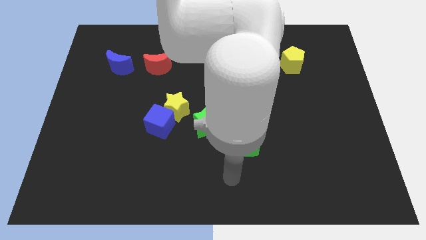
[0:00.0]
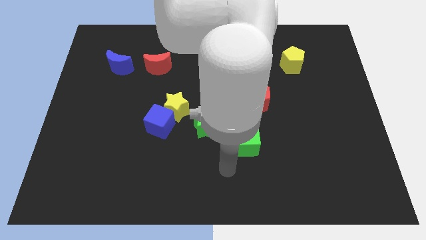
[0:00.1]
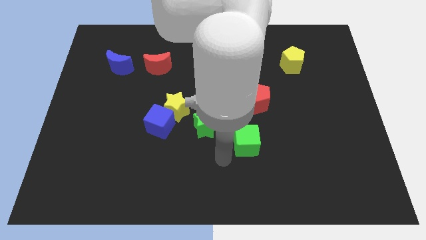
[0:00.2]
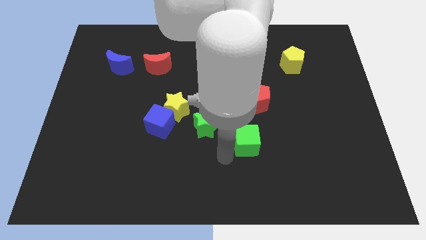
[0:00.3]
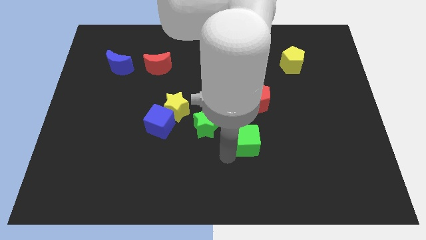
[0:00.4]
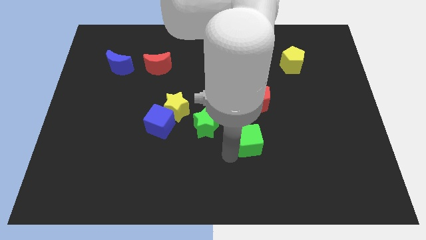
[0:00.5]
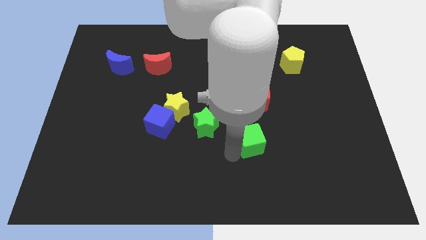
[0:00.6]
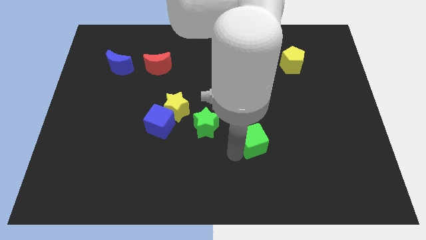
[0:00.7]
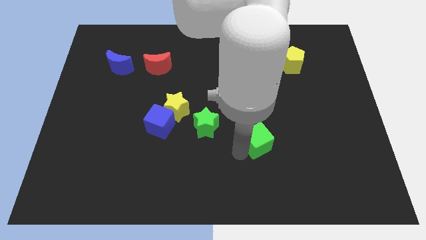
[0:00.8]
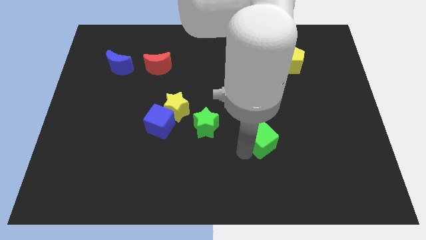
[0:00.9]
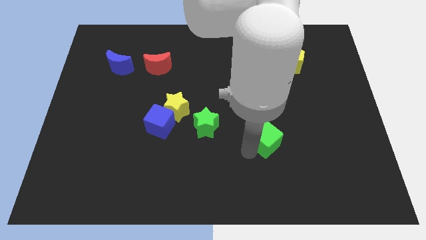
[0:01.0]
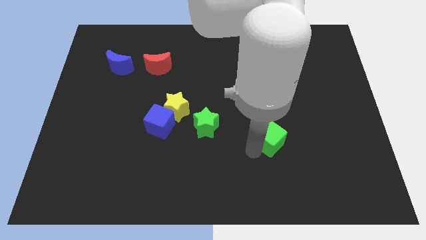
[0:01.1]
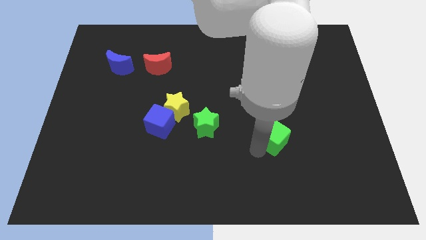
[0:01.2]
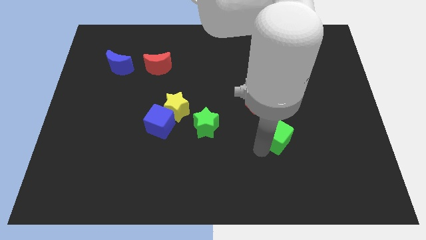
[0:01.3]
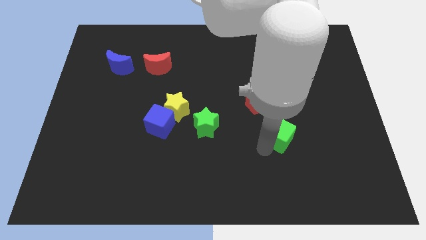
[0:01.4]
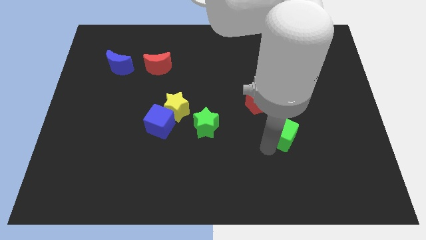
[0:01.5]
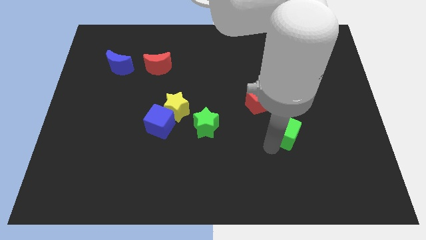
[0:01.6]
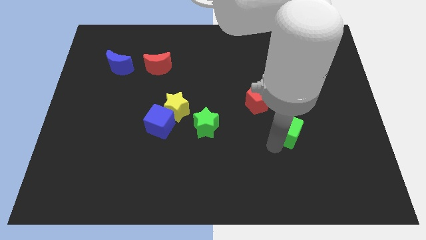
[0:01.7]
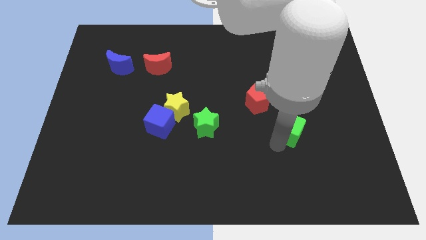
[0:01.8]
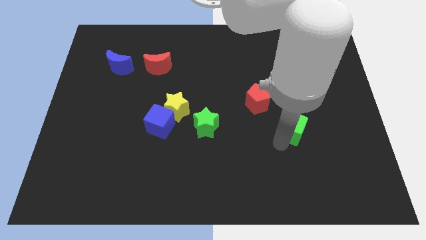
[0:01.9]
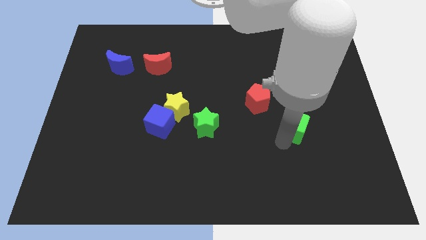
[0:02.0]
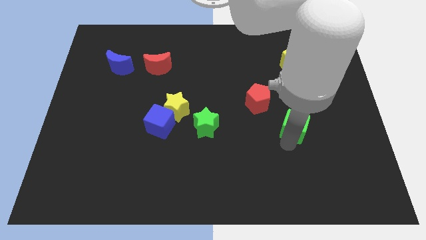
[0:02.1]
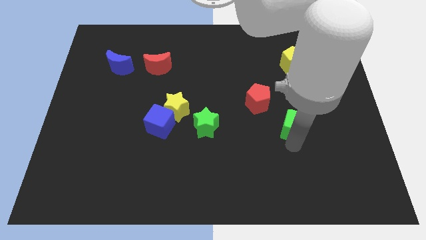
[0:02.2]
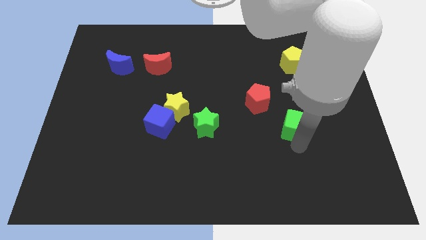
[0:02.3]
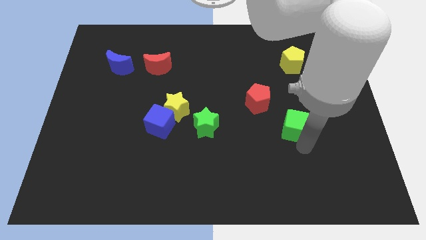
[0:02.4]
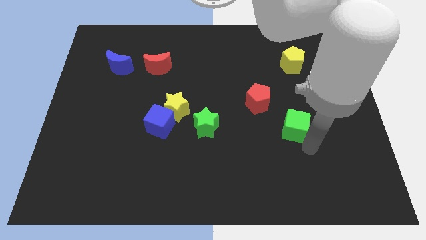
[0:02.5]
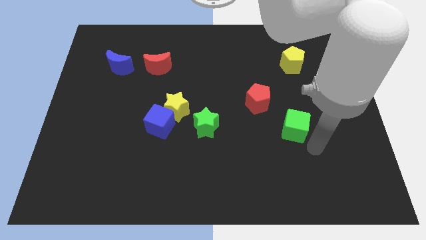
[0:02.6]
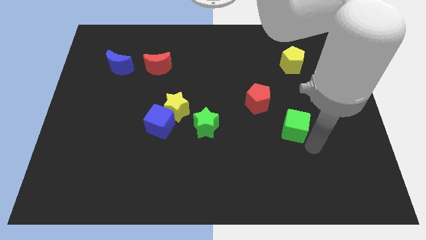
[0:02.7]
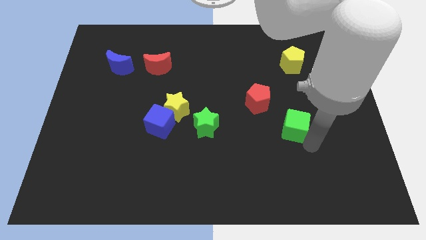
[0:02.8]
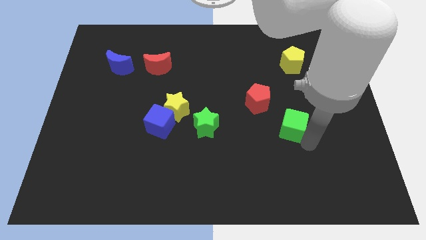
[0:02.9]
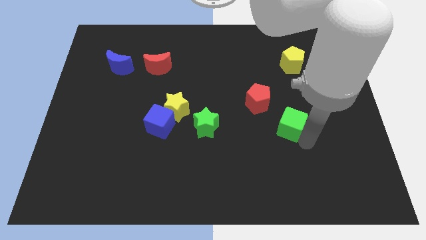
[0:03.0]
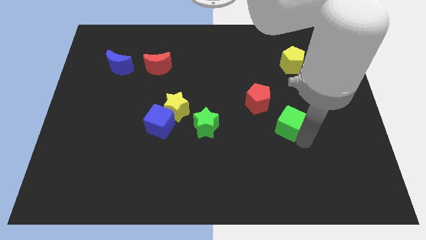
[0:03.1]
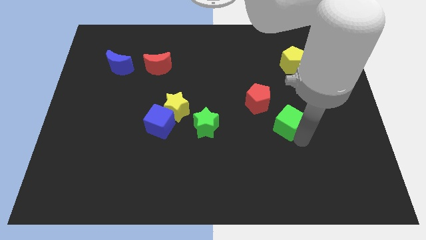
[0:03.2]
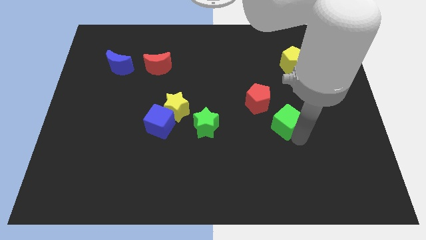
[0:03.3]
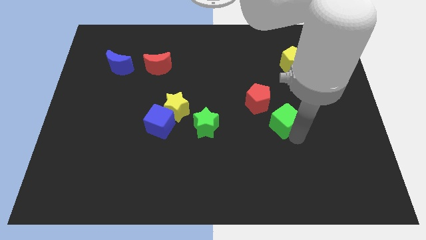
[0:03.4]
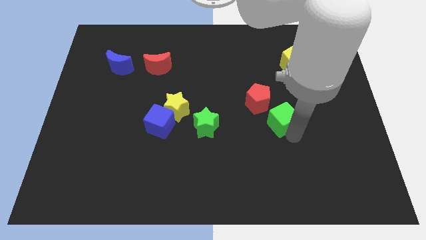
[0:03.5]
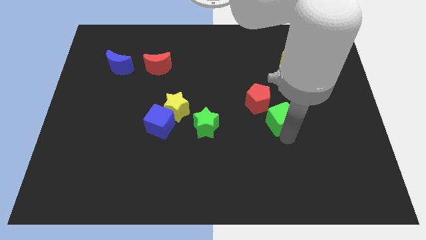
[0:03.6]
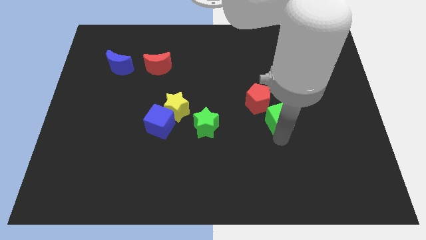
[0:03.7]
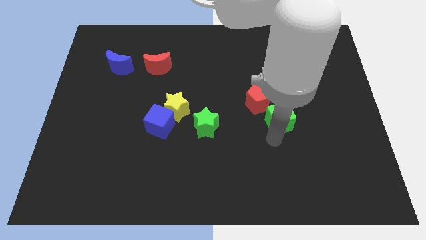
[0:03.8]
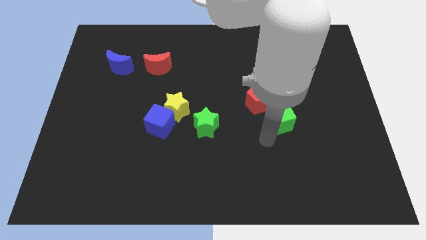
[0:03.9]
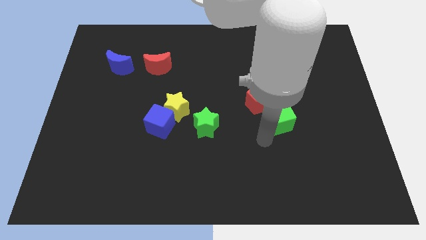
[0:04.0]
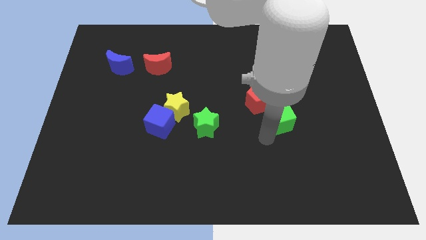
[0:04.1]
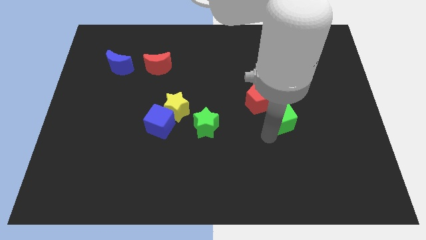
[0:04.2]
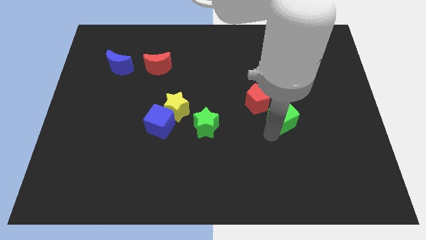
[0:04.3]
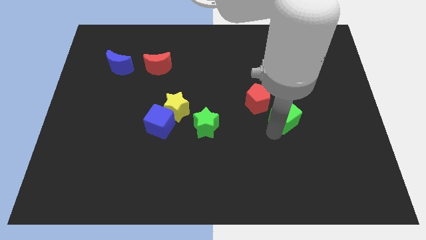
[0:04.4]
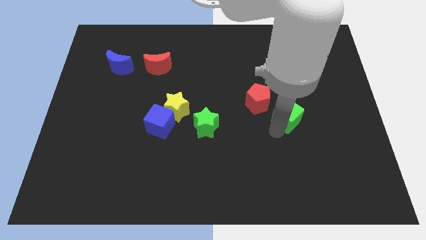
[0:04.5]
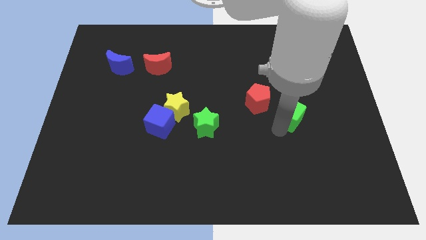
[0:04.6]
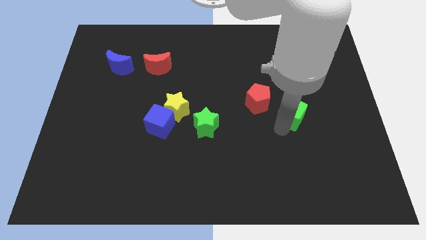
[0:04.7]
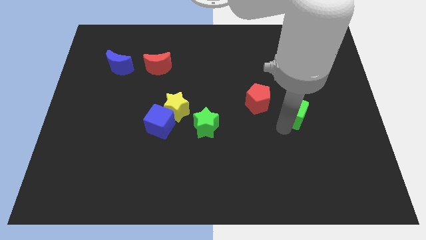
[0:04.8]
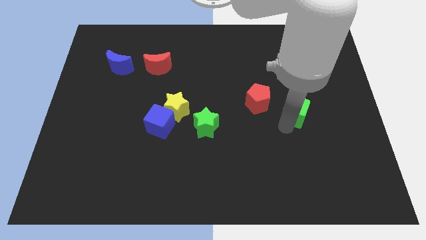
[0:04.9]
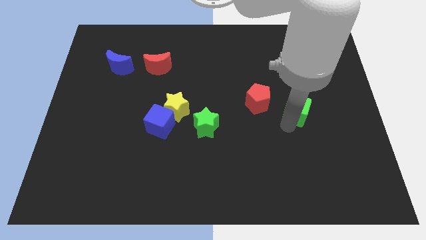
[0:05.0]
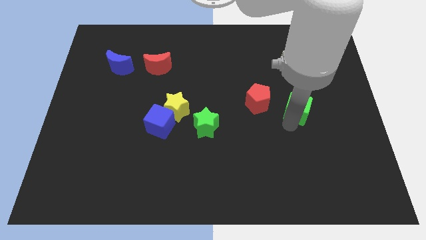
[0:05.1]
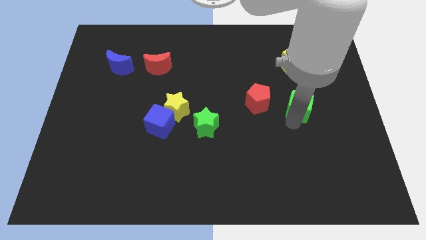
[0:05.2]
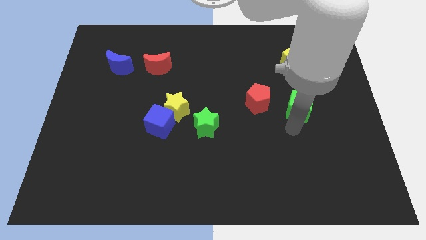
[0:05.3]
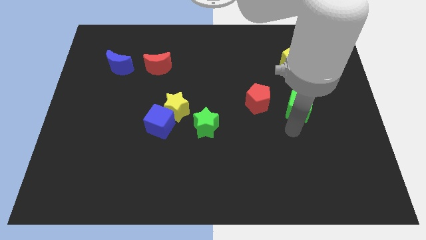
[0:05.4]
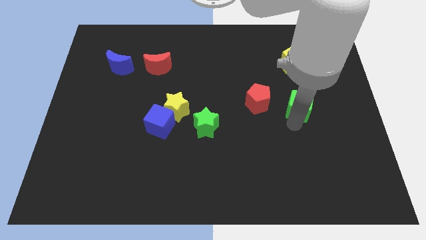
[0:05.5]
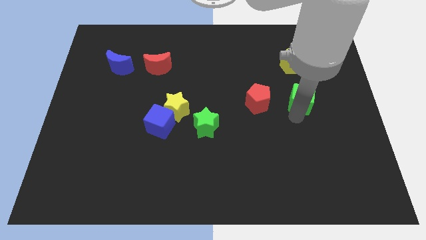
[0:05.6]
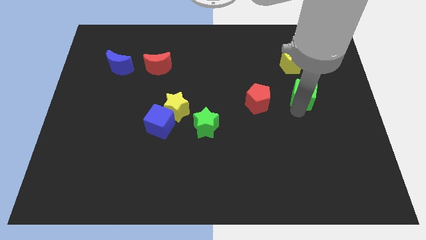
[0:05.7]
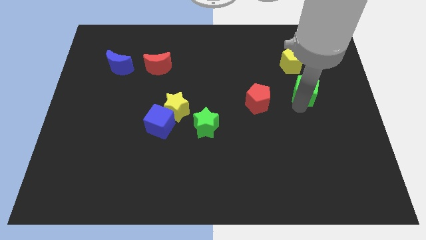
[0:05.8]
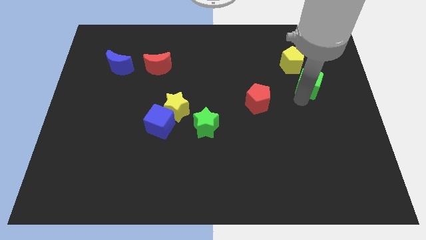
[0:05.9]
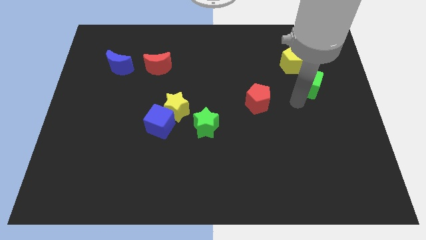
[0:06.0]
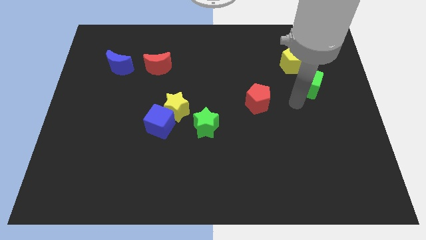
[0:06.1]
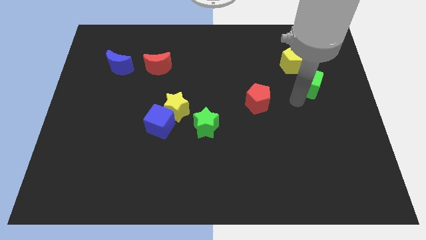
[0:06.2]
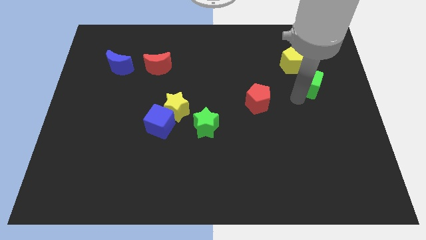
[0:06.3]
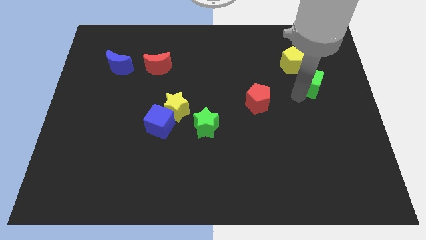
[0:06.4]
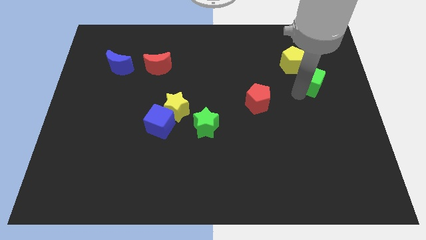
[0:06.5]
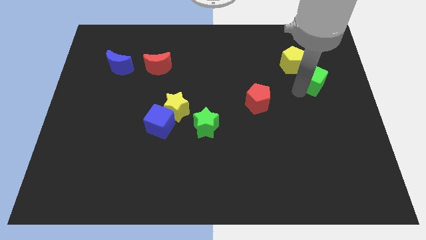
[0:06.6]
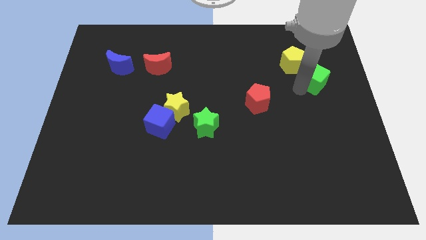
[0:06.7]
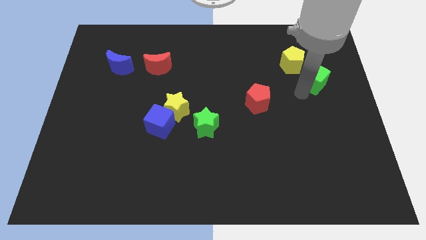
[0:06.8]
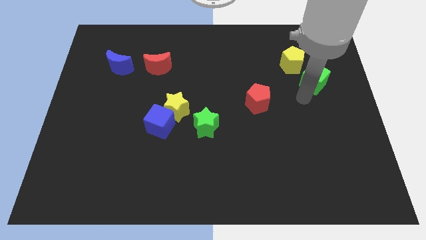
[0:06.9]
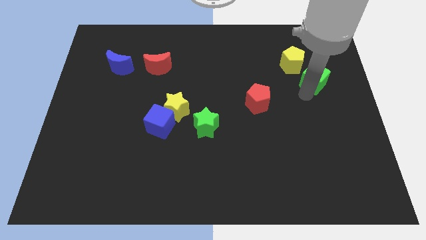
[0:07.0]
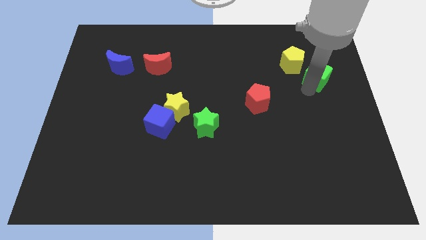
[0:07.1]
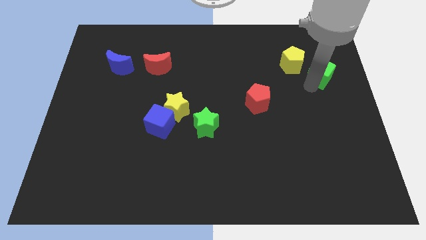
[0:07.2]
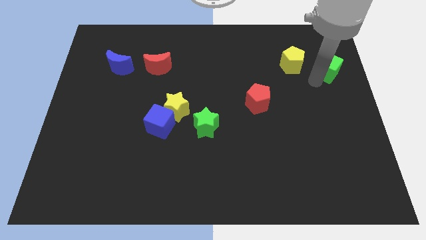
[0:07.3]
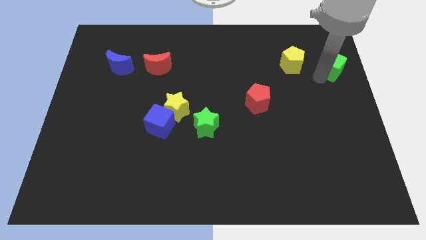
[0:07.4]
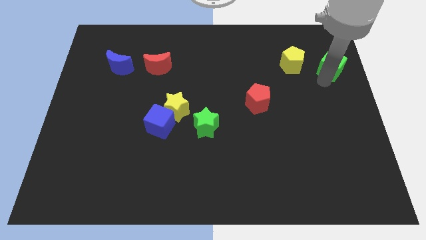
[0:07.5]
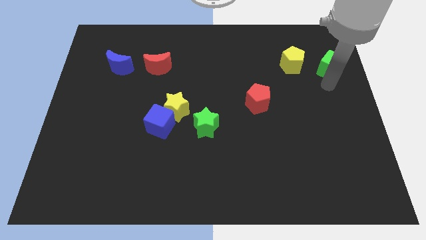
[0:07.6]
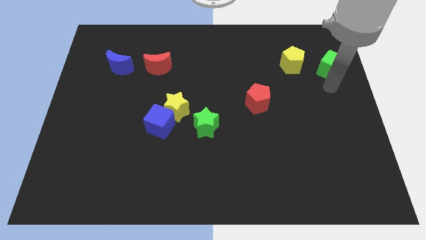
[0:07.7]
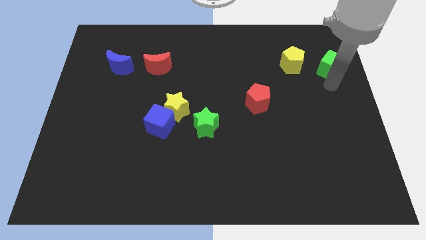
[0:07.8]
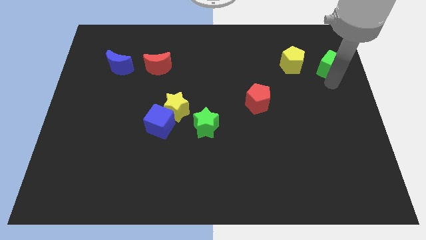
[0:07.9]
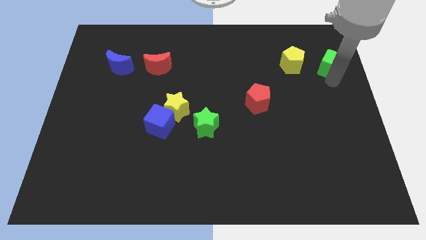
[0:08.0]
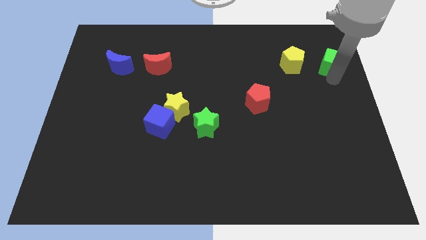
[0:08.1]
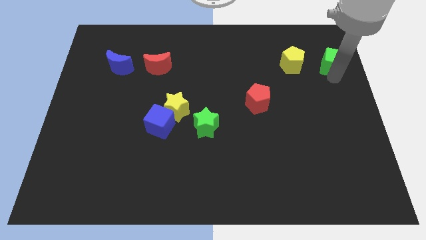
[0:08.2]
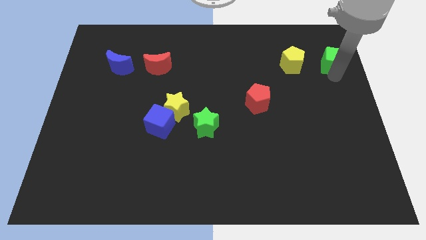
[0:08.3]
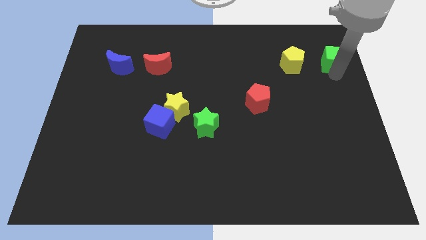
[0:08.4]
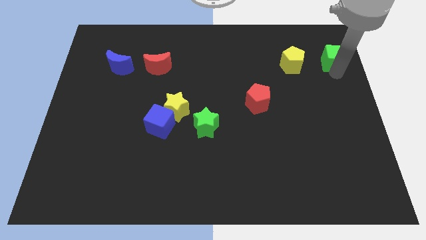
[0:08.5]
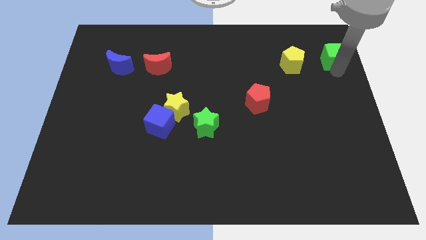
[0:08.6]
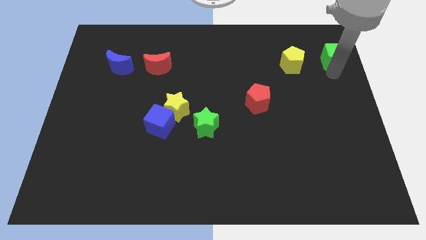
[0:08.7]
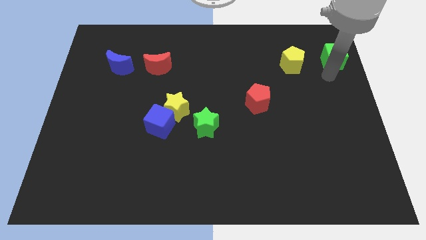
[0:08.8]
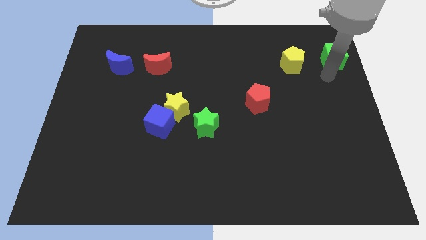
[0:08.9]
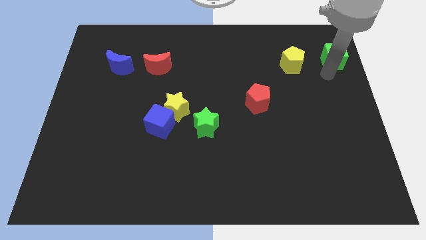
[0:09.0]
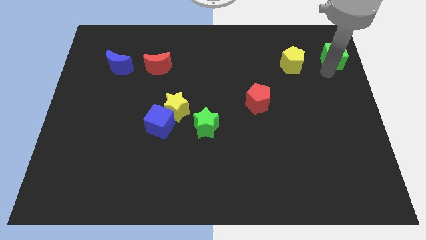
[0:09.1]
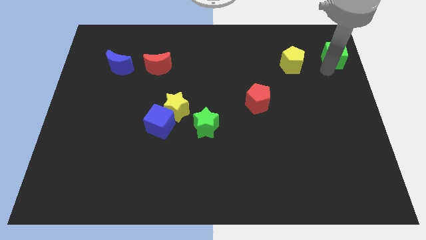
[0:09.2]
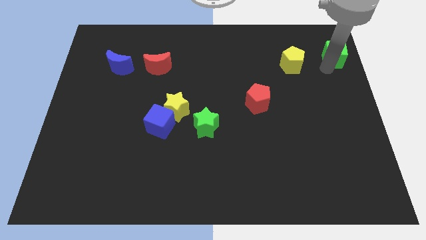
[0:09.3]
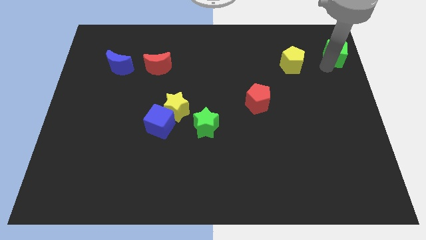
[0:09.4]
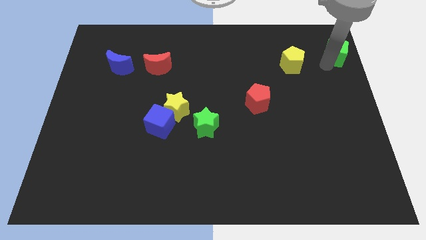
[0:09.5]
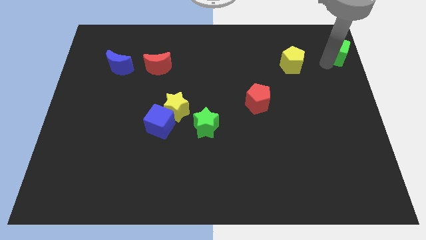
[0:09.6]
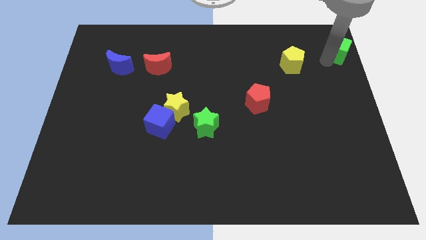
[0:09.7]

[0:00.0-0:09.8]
slide the green cube to the top right
